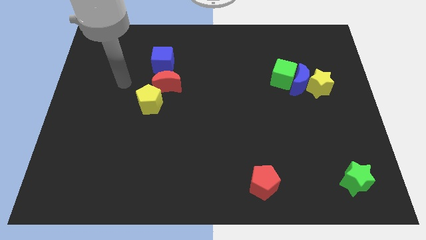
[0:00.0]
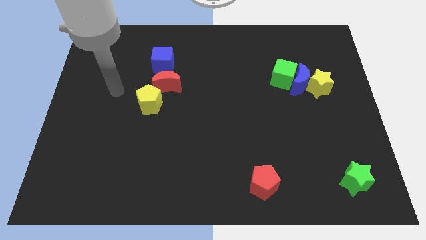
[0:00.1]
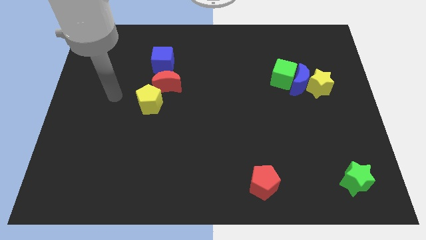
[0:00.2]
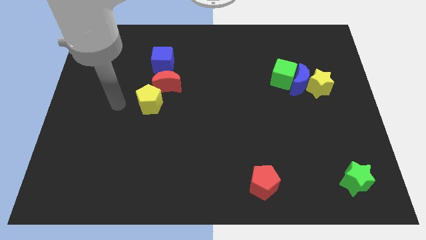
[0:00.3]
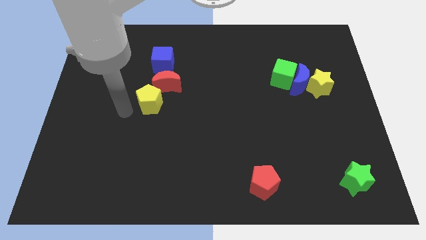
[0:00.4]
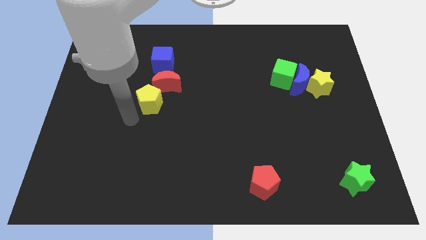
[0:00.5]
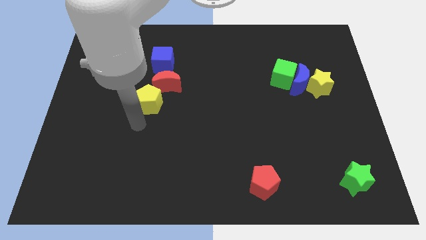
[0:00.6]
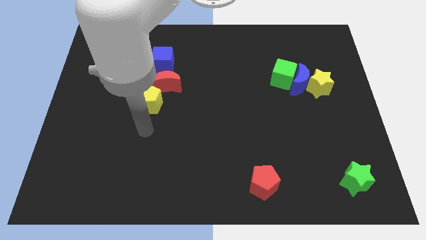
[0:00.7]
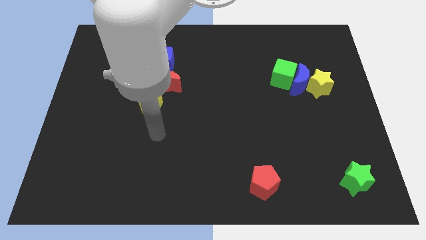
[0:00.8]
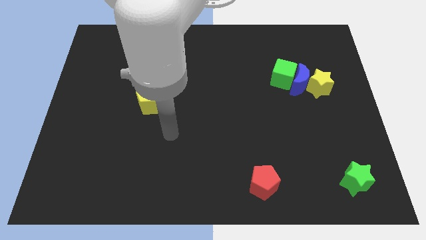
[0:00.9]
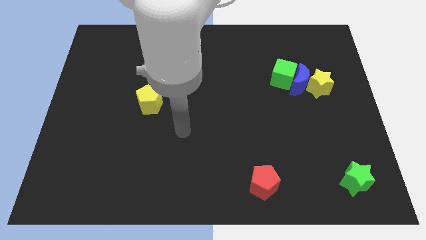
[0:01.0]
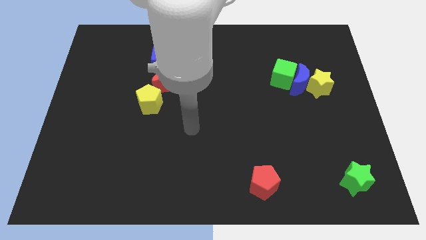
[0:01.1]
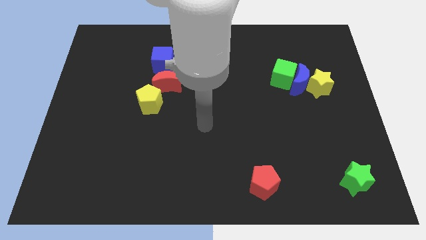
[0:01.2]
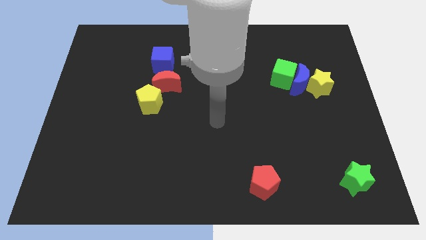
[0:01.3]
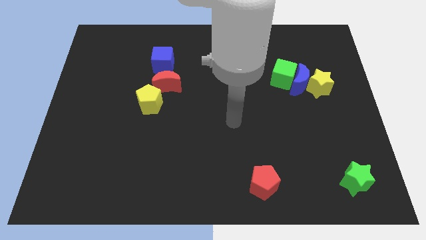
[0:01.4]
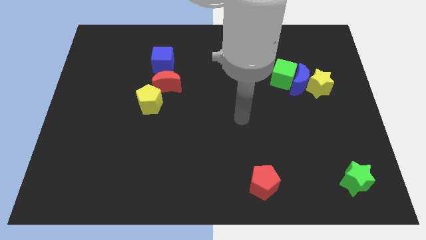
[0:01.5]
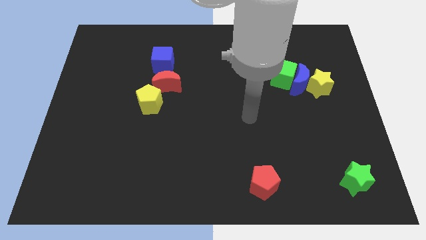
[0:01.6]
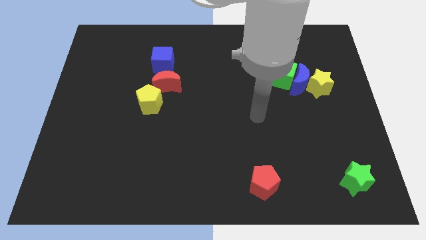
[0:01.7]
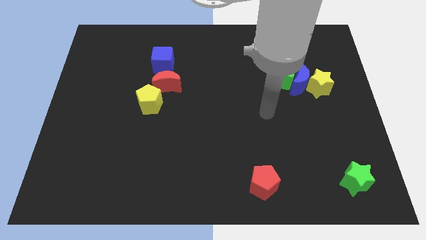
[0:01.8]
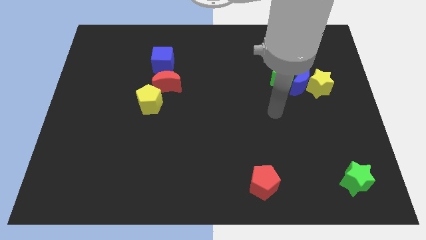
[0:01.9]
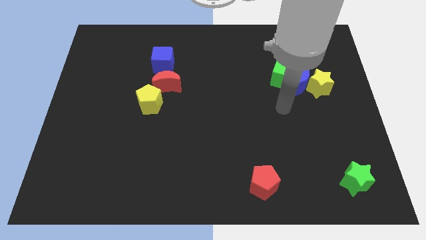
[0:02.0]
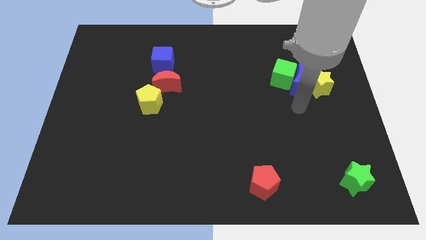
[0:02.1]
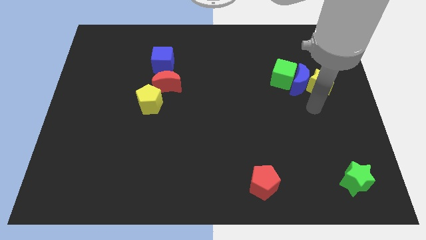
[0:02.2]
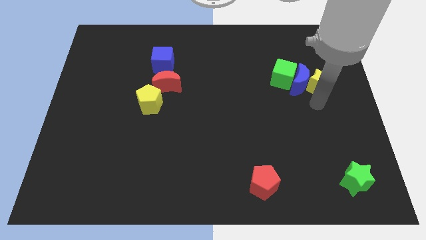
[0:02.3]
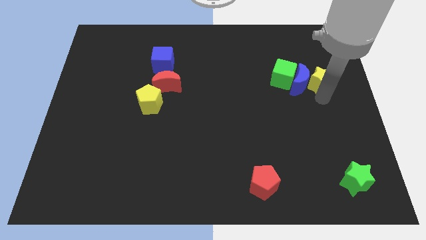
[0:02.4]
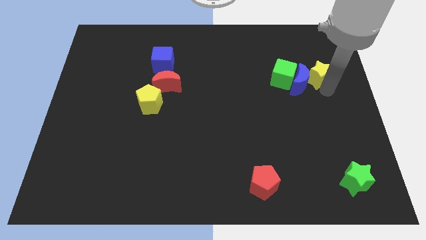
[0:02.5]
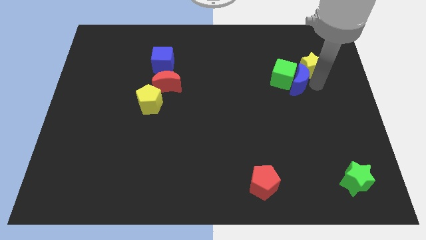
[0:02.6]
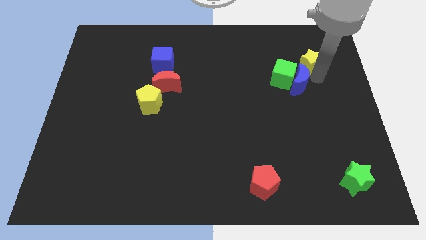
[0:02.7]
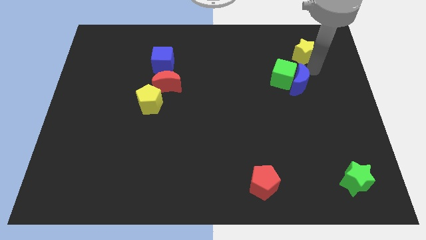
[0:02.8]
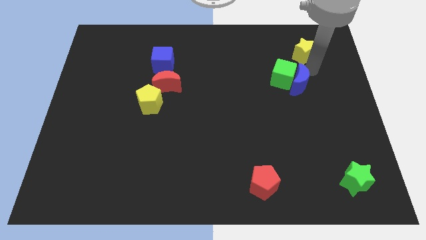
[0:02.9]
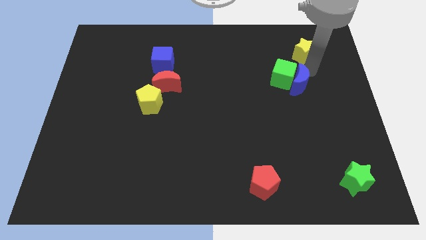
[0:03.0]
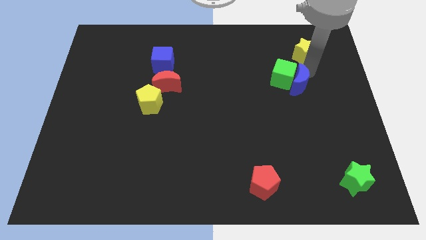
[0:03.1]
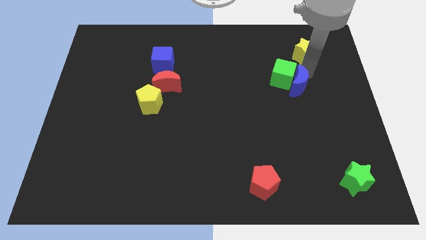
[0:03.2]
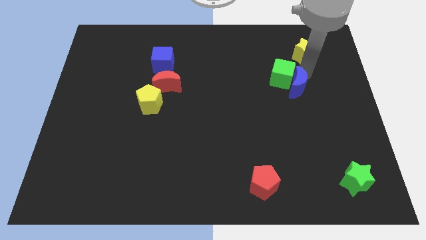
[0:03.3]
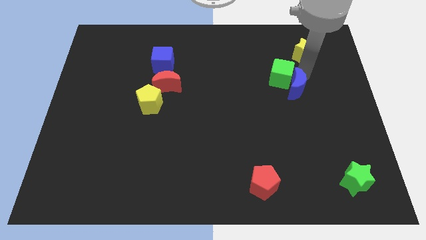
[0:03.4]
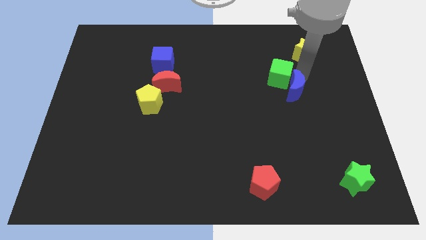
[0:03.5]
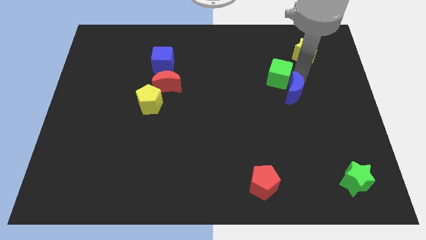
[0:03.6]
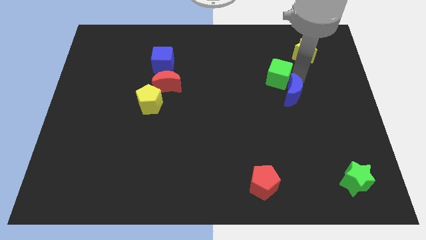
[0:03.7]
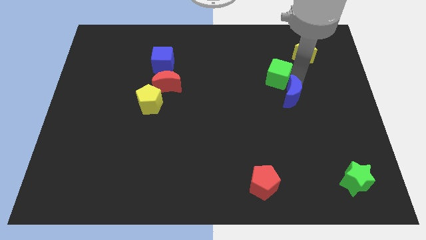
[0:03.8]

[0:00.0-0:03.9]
pull the blue moon apart from the green cube and yellow star

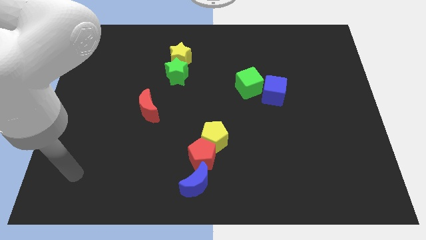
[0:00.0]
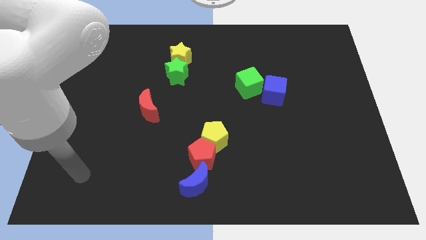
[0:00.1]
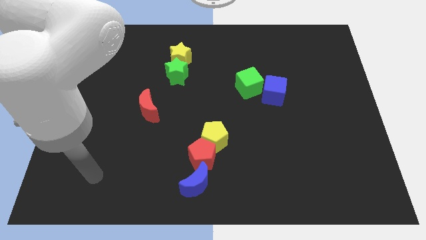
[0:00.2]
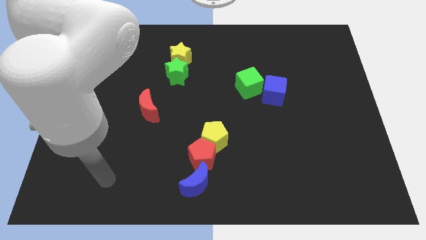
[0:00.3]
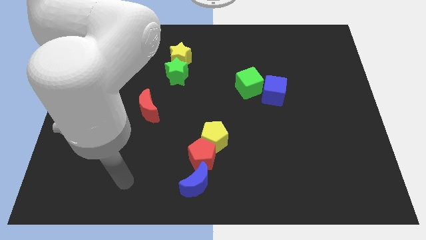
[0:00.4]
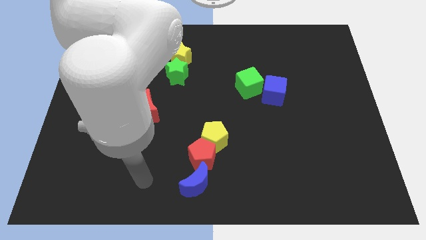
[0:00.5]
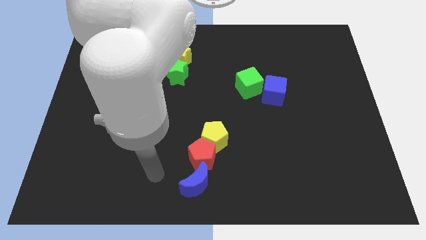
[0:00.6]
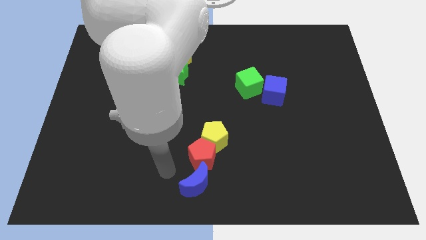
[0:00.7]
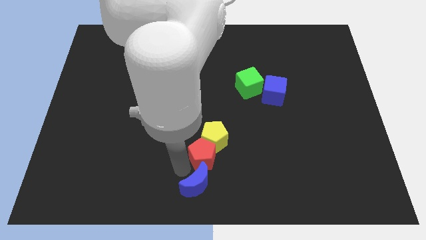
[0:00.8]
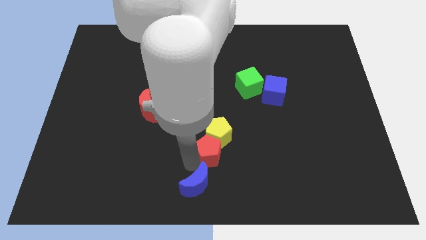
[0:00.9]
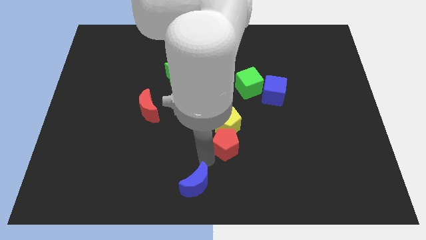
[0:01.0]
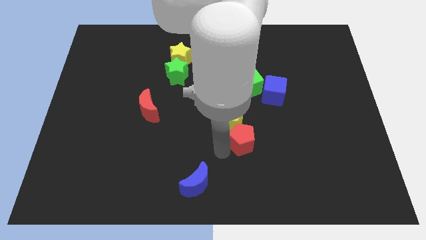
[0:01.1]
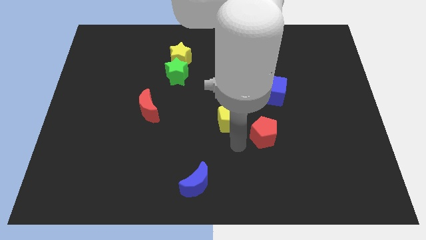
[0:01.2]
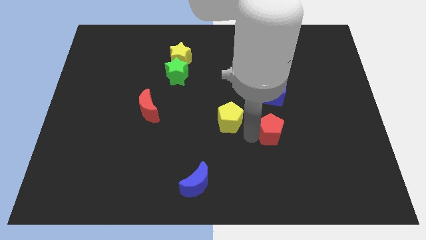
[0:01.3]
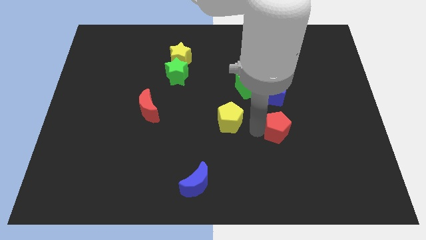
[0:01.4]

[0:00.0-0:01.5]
pull the yellow pentagon apart from the red pentagon

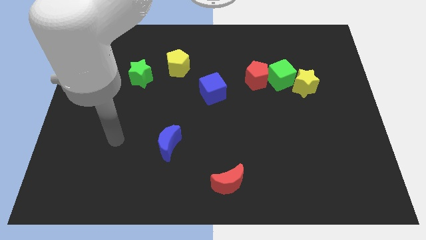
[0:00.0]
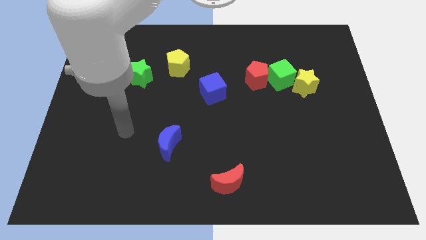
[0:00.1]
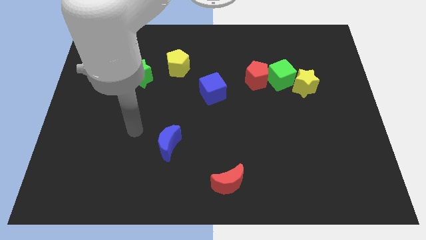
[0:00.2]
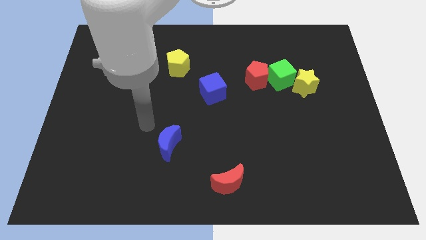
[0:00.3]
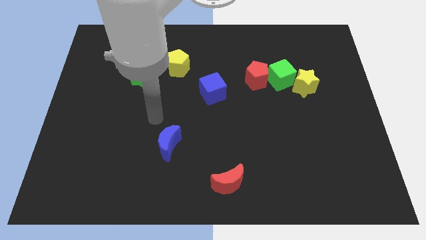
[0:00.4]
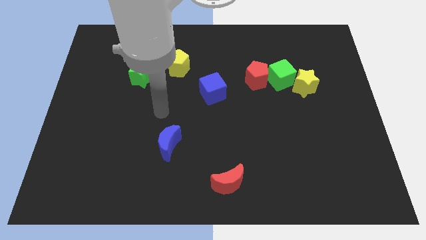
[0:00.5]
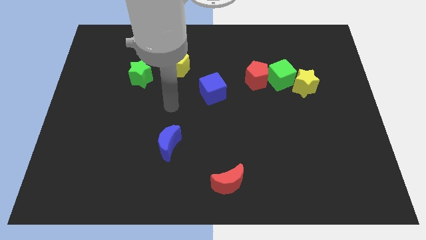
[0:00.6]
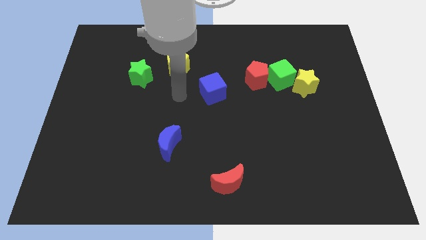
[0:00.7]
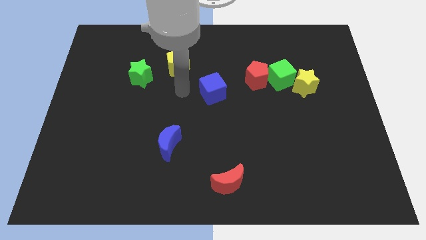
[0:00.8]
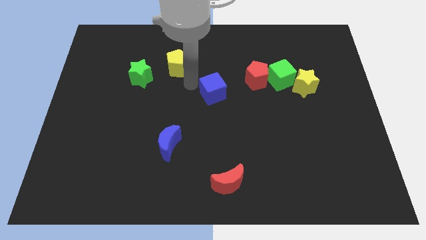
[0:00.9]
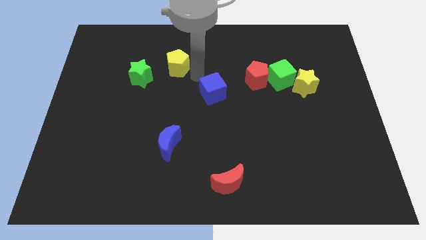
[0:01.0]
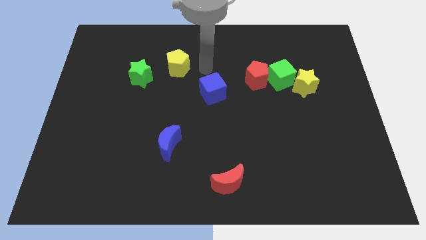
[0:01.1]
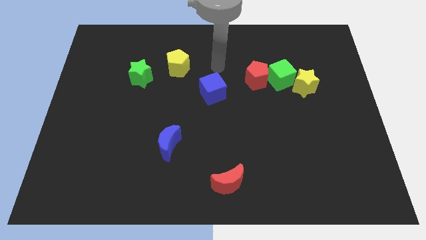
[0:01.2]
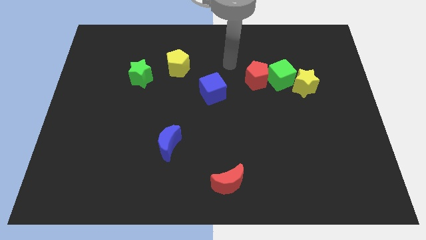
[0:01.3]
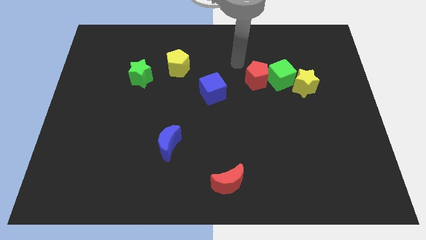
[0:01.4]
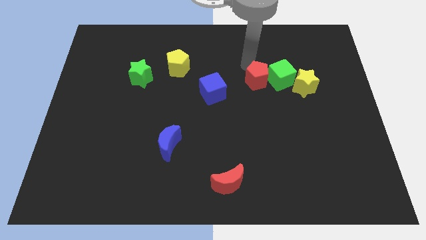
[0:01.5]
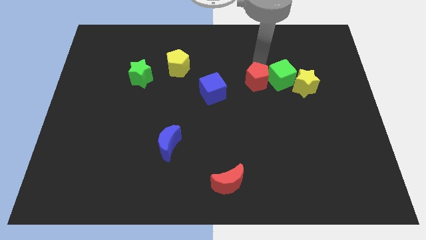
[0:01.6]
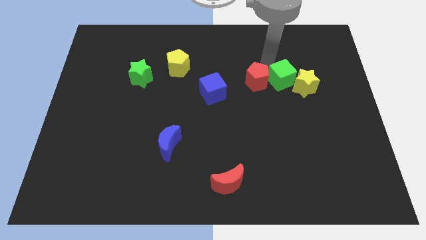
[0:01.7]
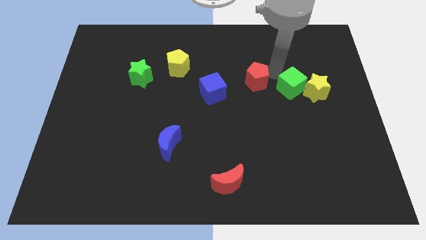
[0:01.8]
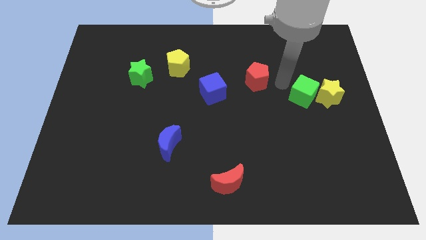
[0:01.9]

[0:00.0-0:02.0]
pull the red pentagon apart from the green cube

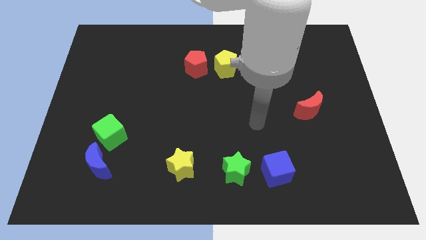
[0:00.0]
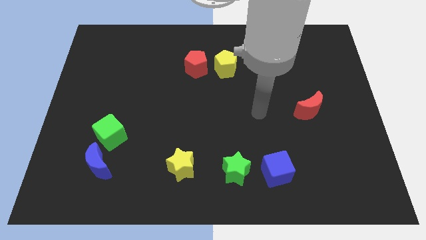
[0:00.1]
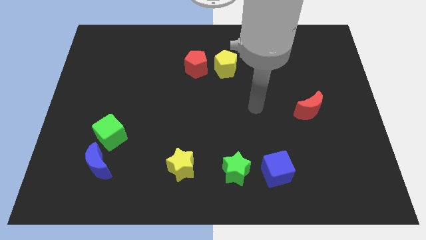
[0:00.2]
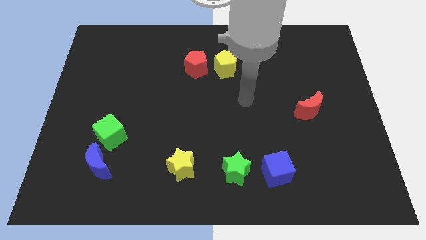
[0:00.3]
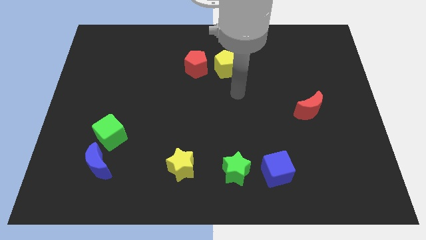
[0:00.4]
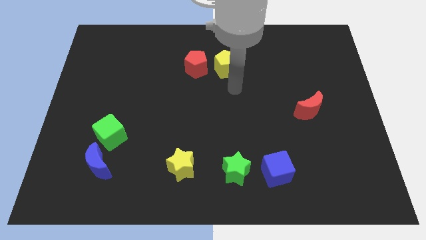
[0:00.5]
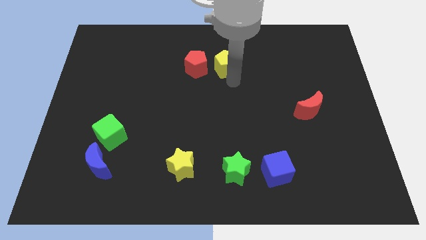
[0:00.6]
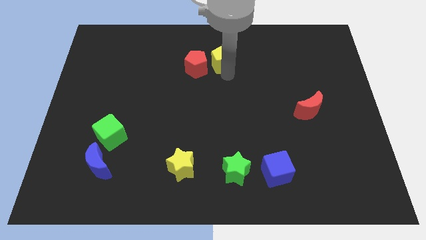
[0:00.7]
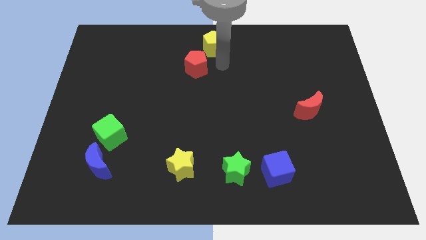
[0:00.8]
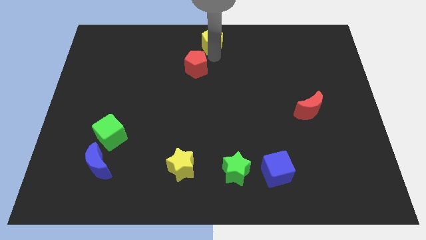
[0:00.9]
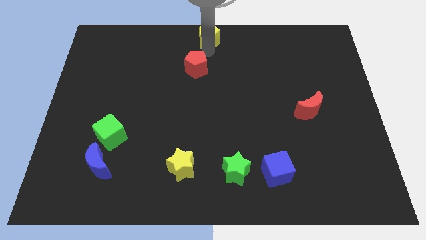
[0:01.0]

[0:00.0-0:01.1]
separate the red pentagon from the yellow pentagon

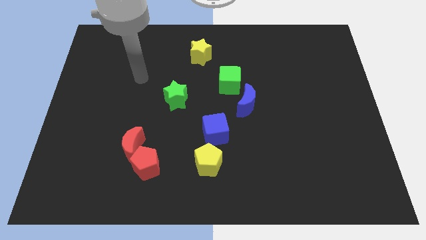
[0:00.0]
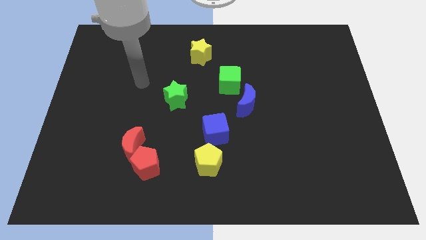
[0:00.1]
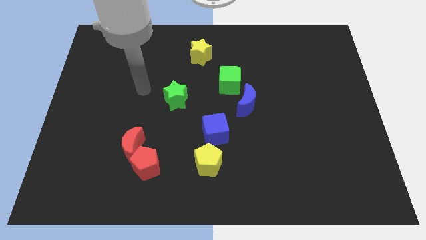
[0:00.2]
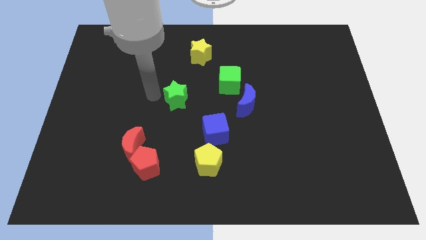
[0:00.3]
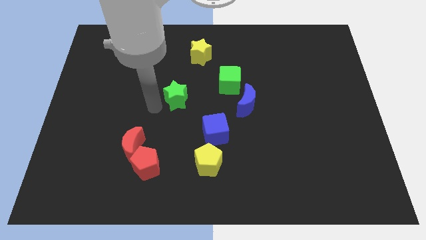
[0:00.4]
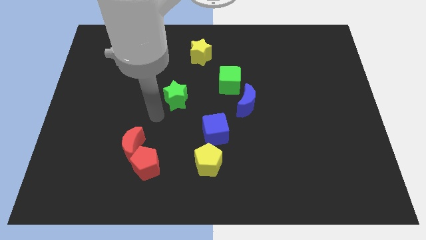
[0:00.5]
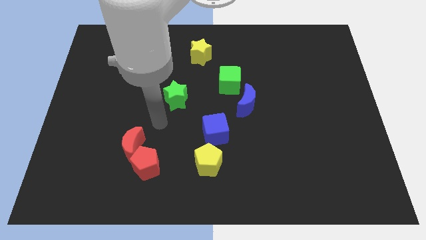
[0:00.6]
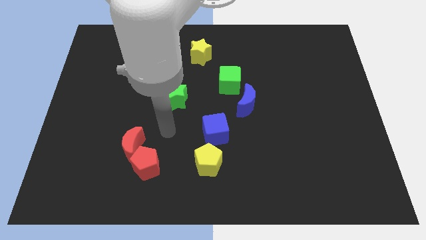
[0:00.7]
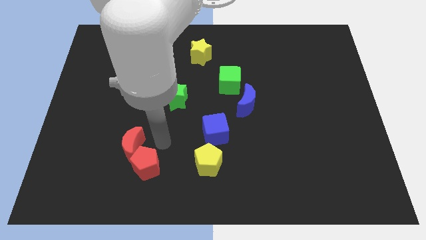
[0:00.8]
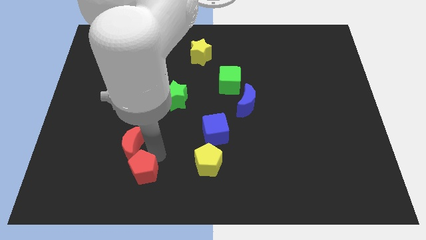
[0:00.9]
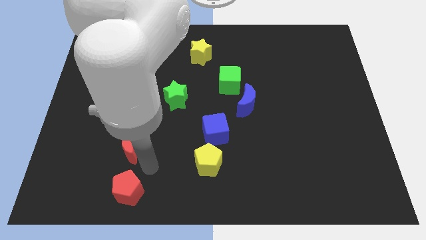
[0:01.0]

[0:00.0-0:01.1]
move the red moon away from the red pentagon
